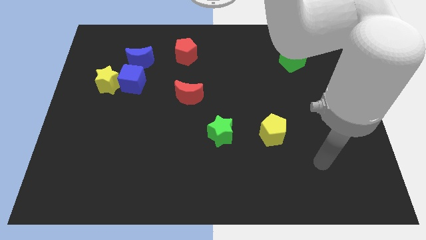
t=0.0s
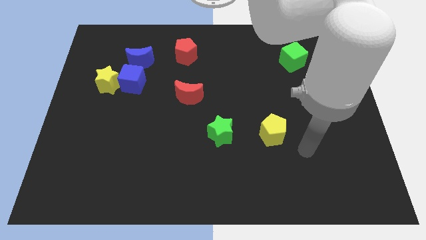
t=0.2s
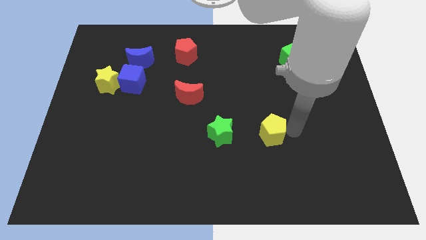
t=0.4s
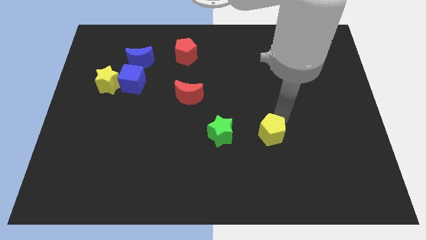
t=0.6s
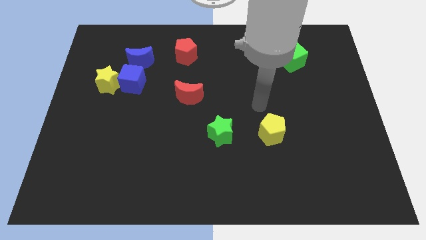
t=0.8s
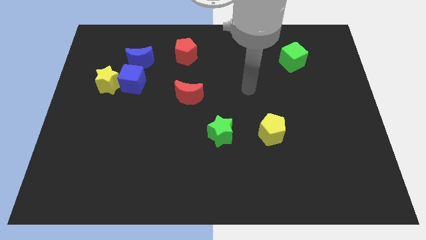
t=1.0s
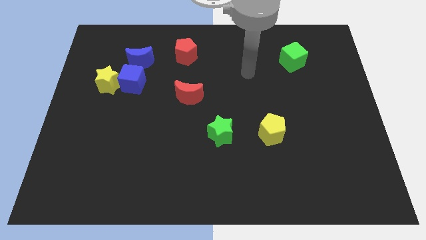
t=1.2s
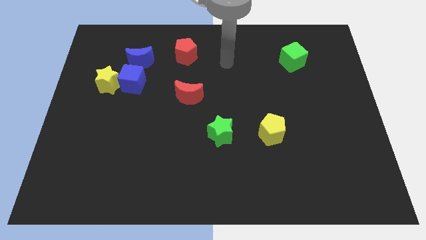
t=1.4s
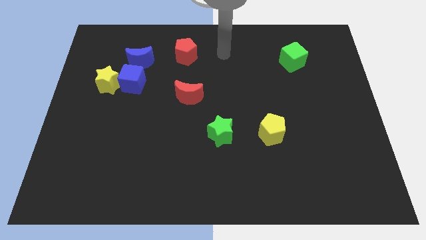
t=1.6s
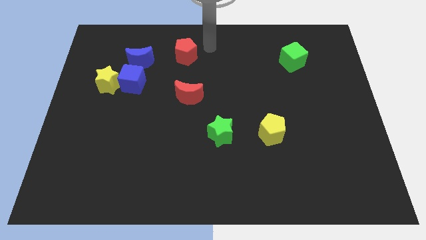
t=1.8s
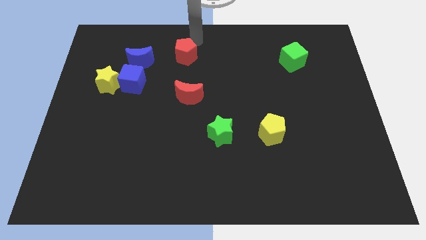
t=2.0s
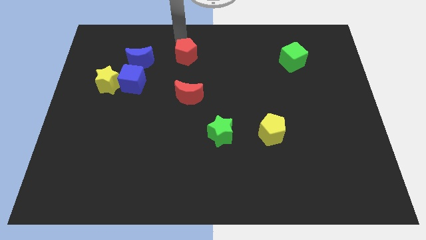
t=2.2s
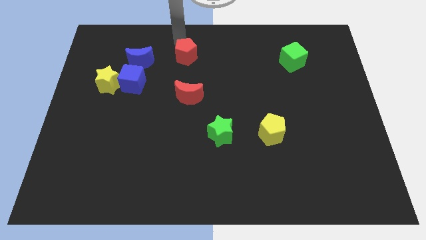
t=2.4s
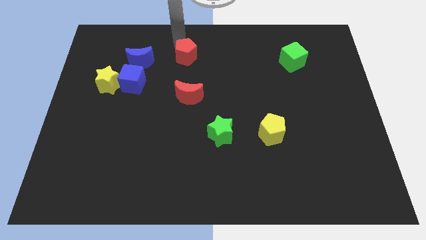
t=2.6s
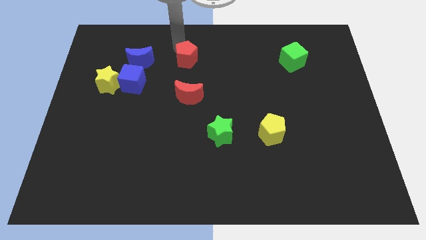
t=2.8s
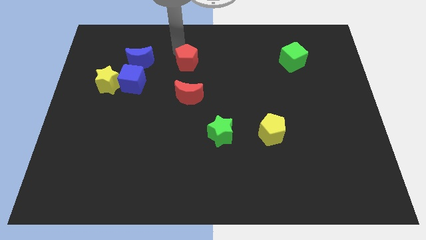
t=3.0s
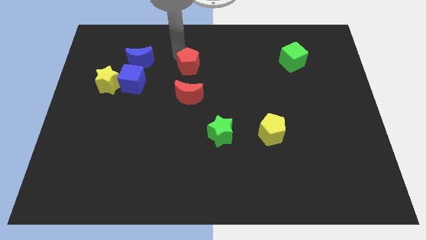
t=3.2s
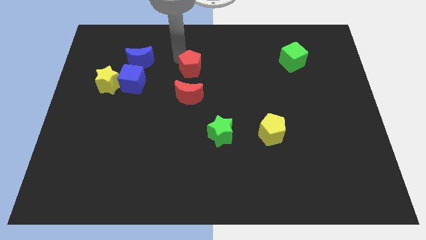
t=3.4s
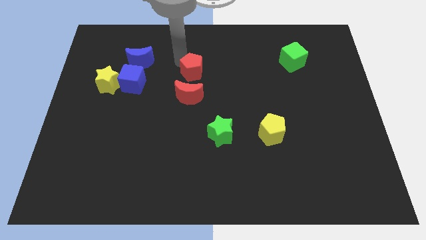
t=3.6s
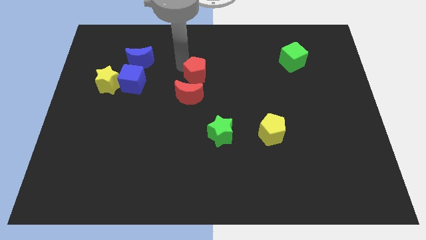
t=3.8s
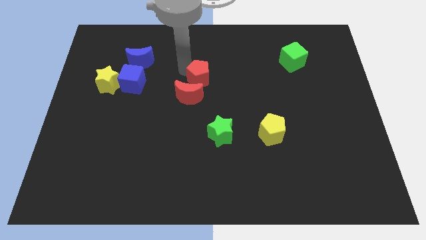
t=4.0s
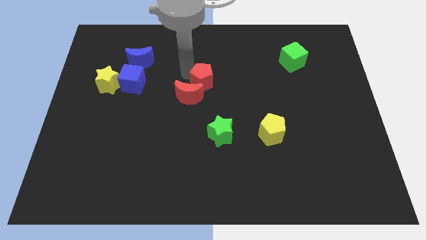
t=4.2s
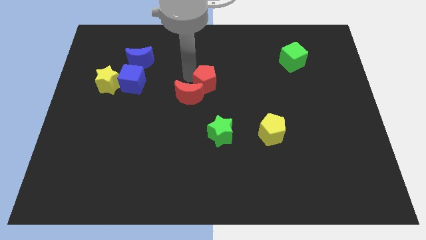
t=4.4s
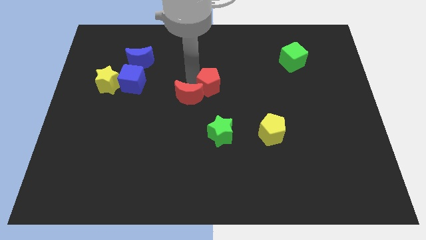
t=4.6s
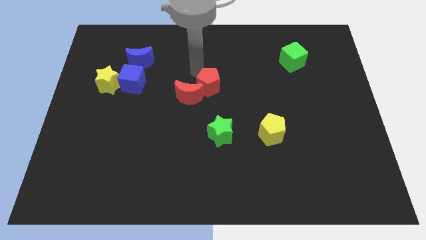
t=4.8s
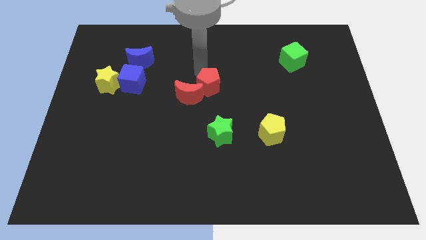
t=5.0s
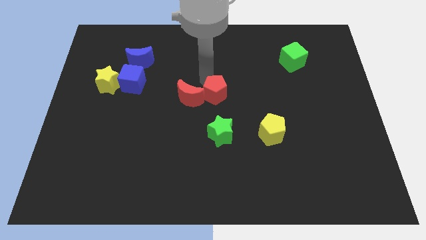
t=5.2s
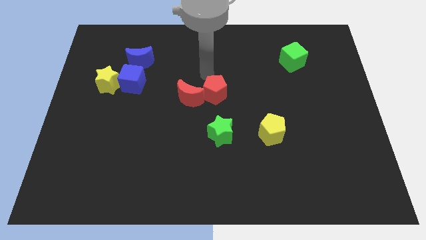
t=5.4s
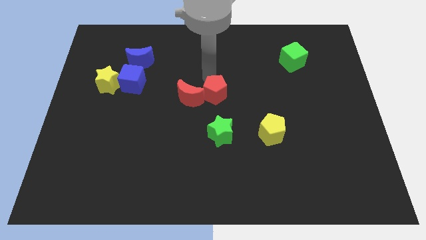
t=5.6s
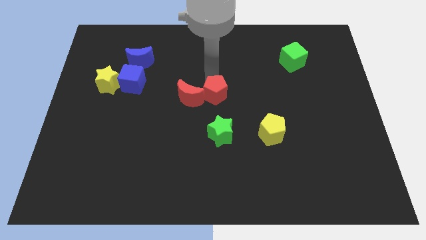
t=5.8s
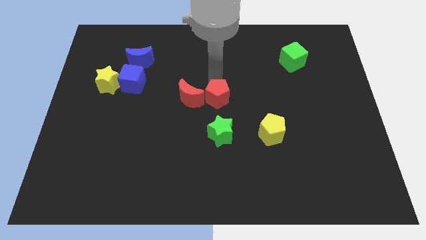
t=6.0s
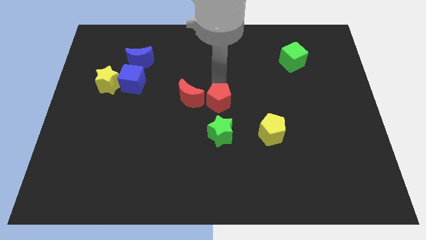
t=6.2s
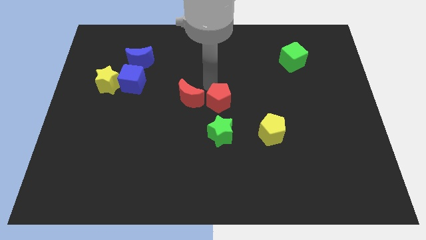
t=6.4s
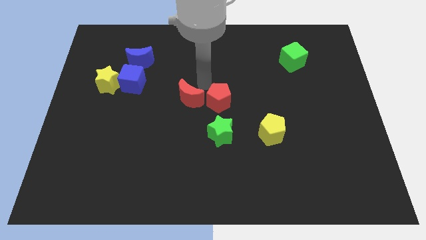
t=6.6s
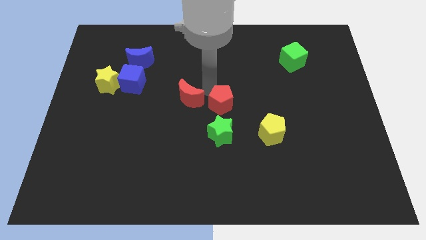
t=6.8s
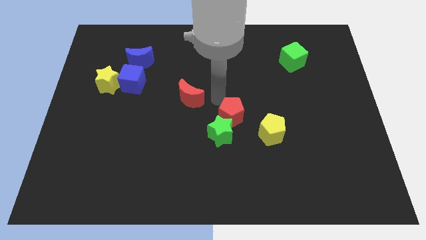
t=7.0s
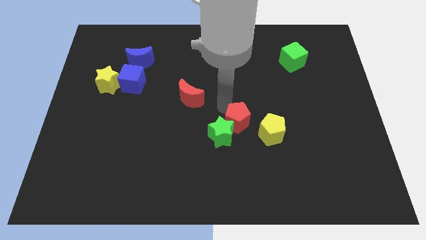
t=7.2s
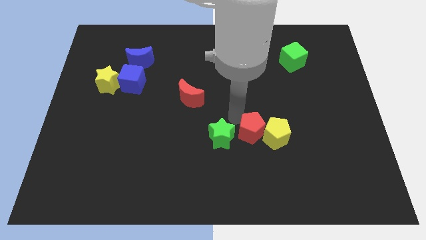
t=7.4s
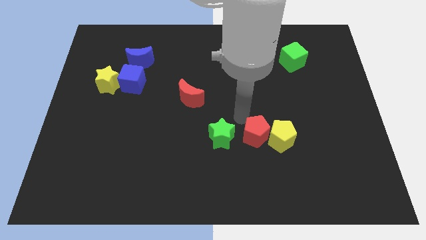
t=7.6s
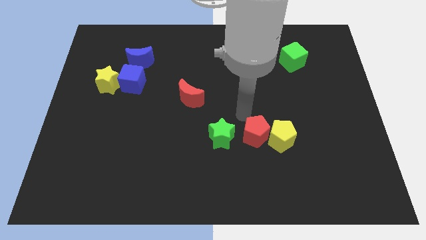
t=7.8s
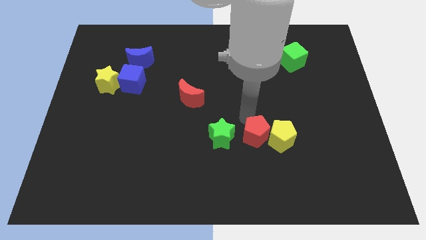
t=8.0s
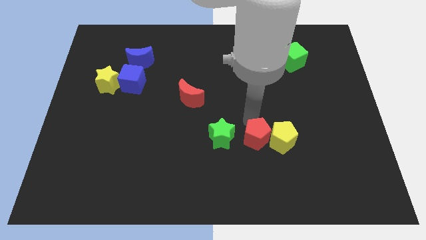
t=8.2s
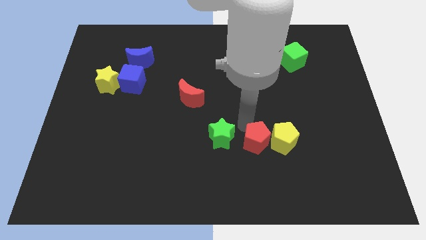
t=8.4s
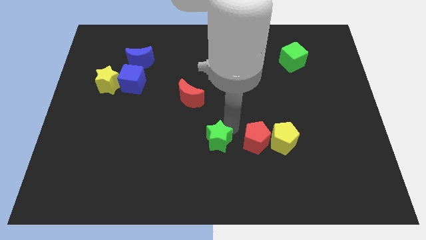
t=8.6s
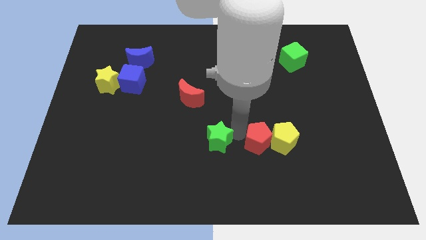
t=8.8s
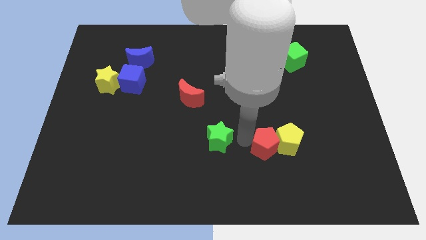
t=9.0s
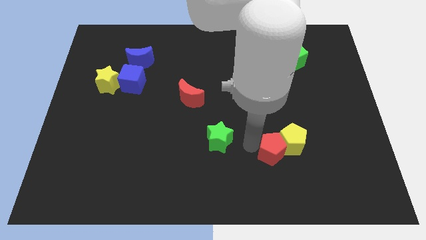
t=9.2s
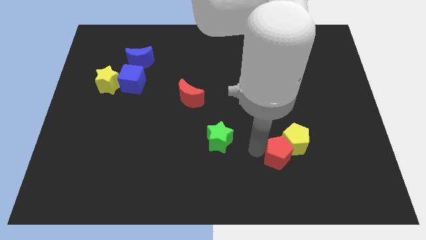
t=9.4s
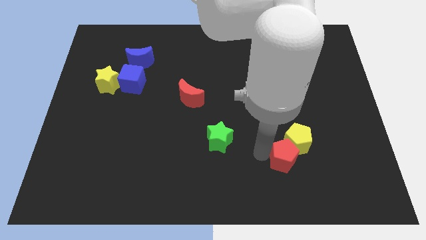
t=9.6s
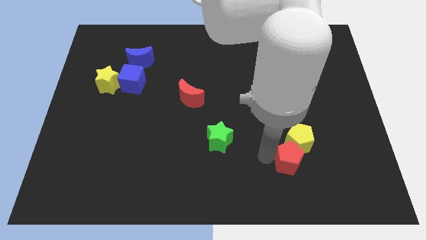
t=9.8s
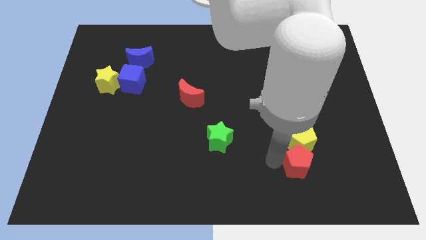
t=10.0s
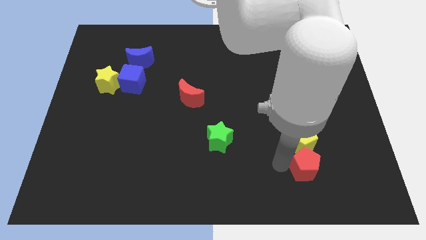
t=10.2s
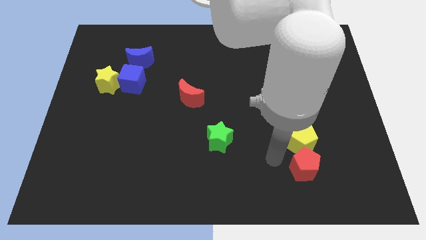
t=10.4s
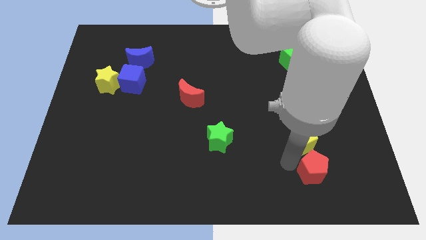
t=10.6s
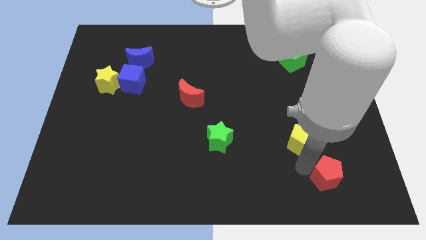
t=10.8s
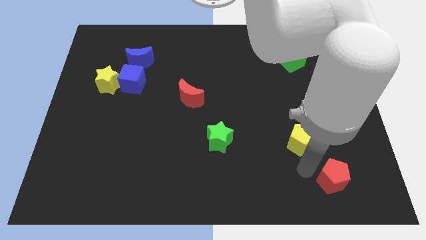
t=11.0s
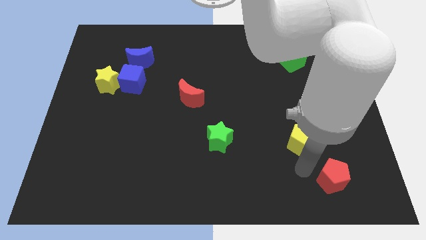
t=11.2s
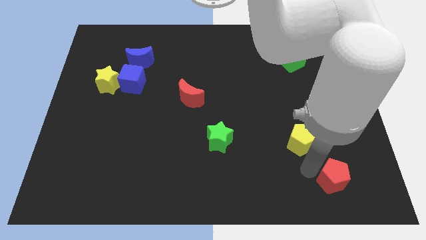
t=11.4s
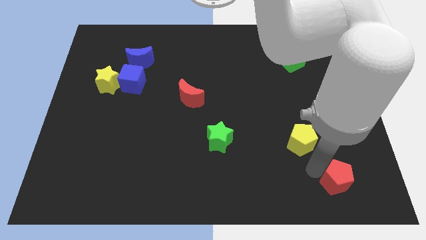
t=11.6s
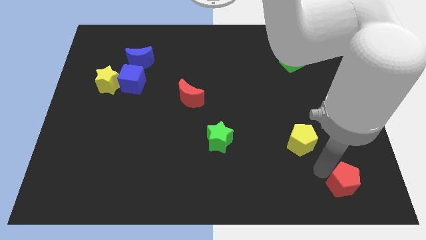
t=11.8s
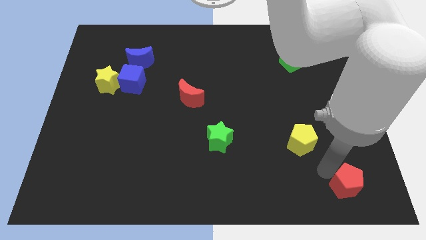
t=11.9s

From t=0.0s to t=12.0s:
put the red pentagon to the bottom right of the board
